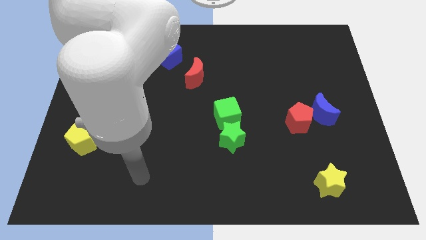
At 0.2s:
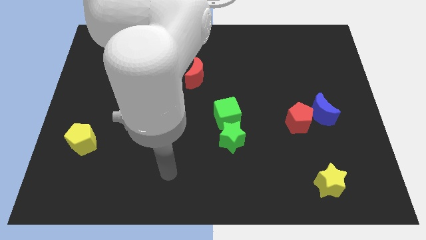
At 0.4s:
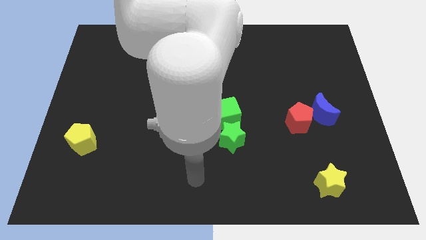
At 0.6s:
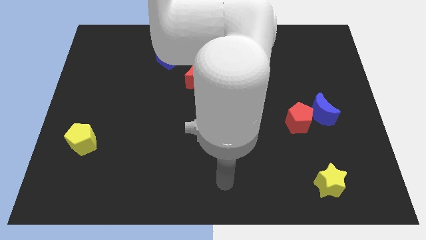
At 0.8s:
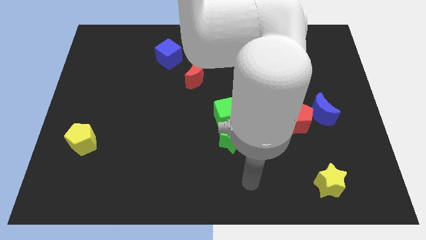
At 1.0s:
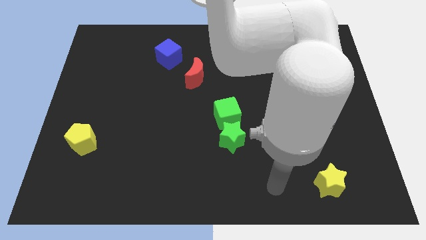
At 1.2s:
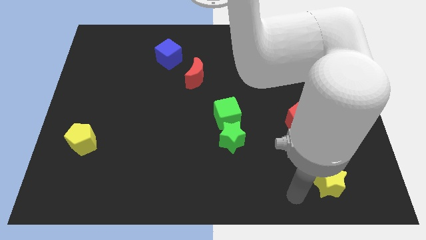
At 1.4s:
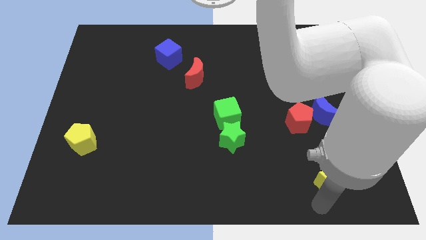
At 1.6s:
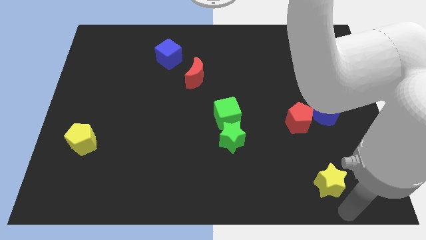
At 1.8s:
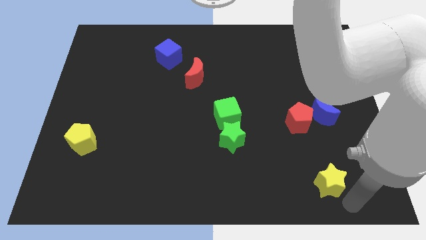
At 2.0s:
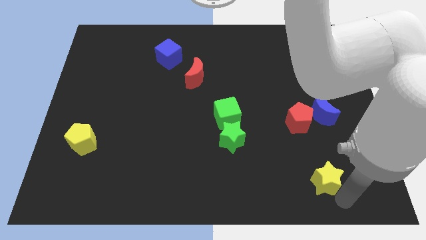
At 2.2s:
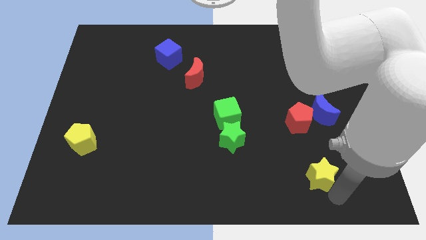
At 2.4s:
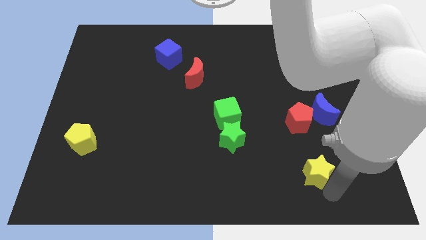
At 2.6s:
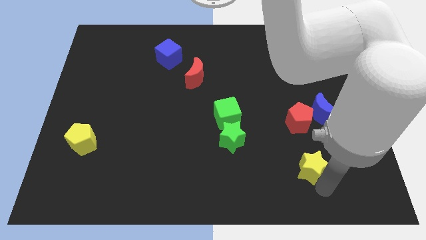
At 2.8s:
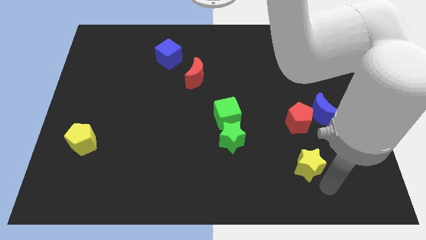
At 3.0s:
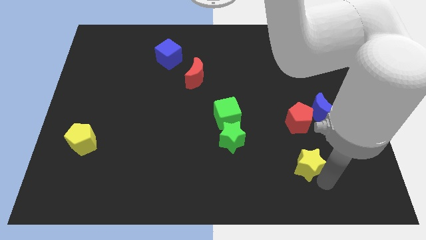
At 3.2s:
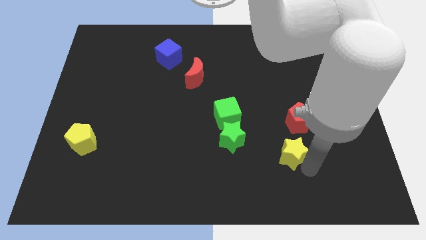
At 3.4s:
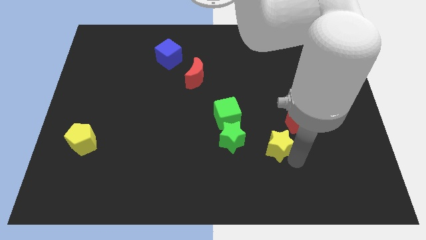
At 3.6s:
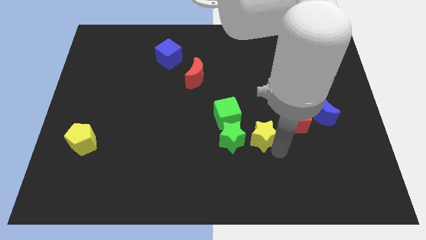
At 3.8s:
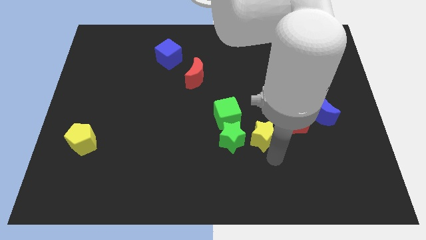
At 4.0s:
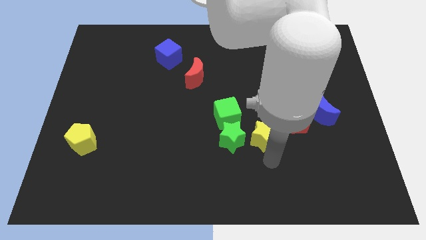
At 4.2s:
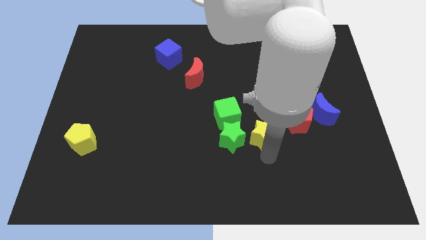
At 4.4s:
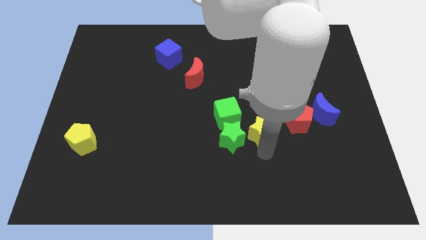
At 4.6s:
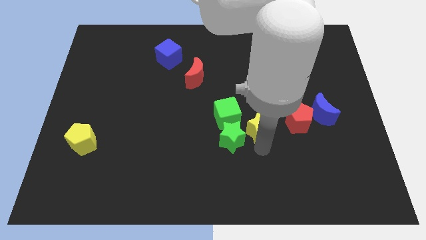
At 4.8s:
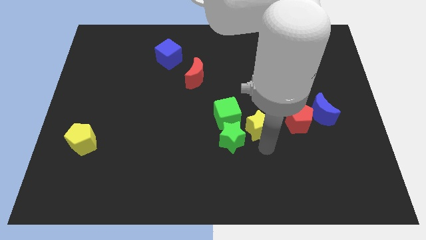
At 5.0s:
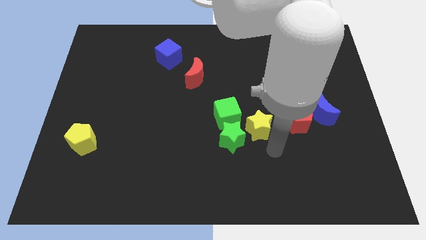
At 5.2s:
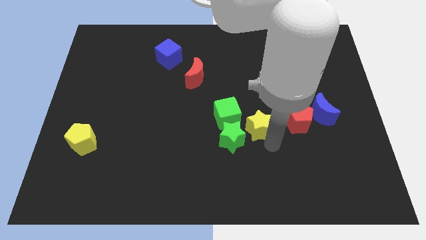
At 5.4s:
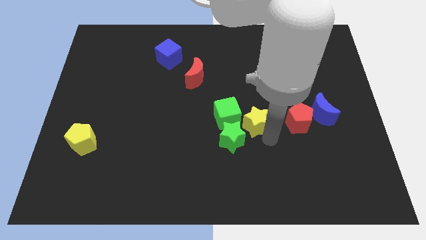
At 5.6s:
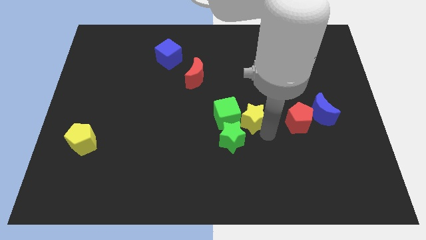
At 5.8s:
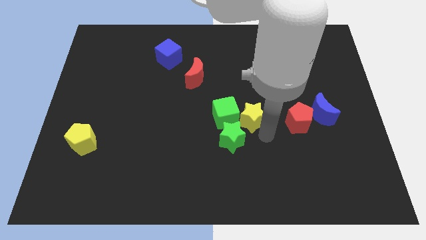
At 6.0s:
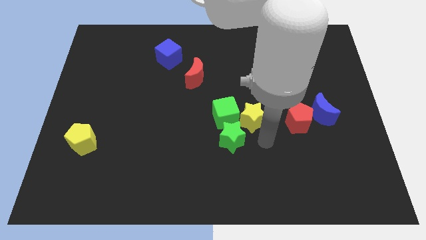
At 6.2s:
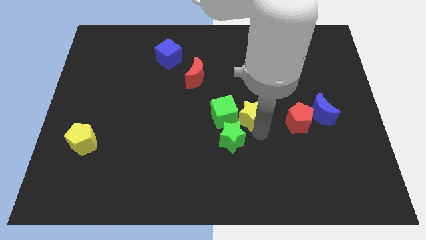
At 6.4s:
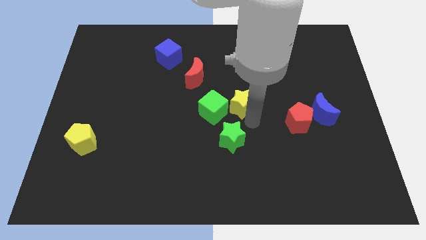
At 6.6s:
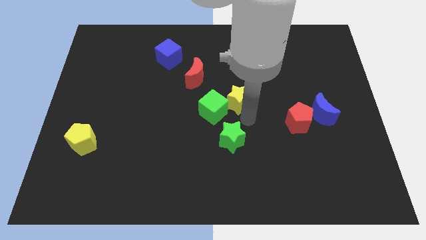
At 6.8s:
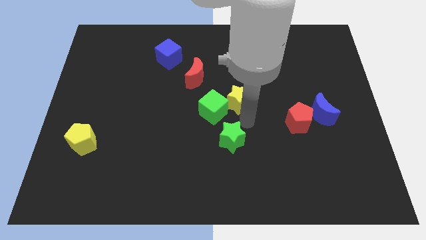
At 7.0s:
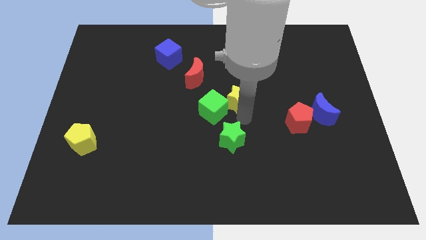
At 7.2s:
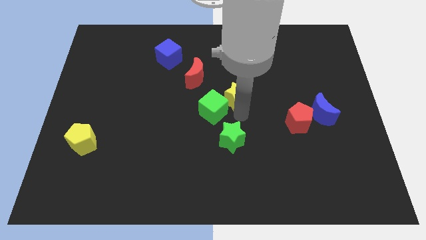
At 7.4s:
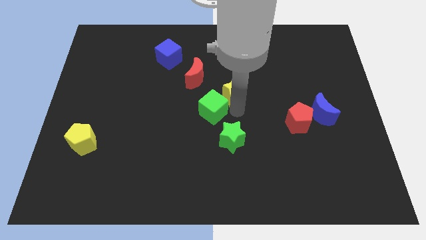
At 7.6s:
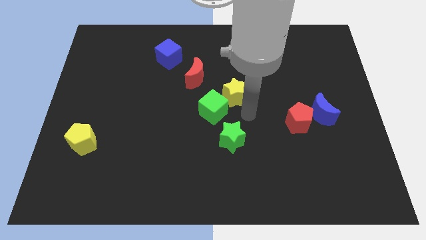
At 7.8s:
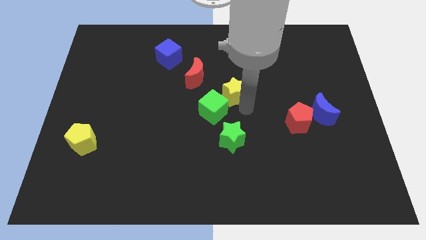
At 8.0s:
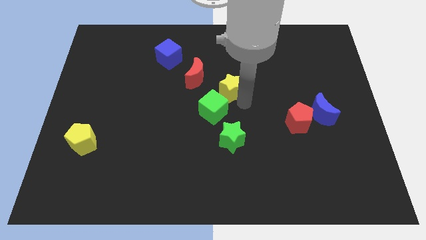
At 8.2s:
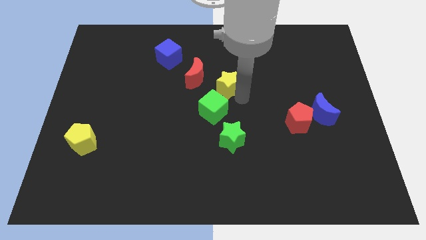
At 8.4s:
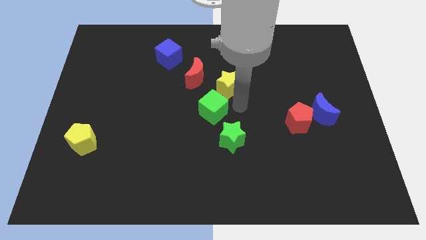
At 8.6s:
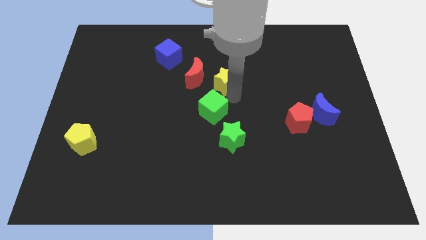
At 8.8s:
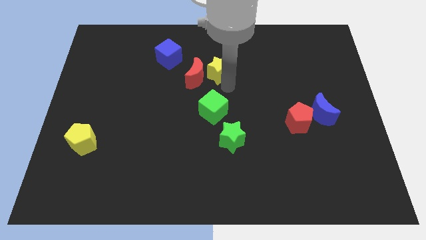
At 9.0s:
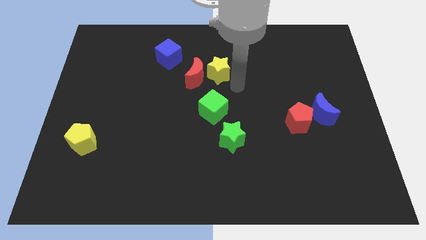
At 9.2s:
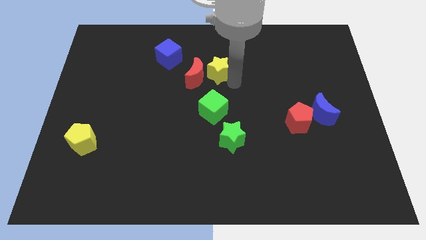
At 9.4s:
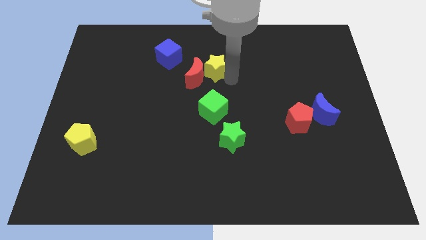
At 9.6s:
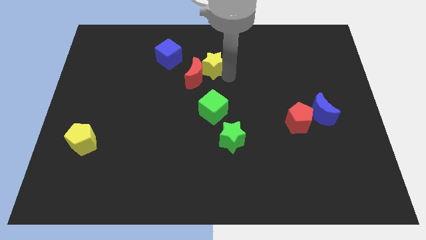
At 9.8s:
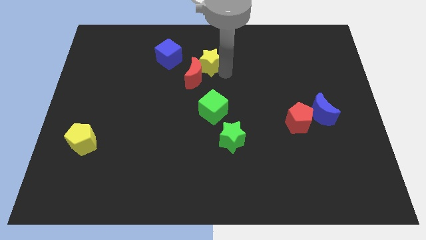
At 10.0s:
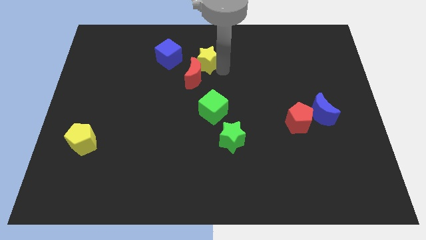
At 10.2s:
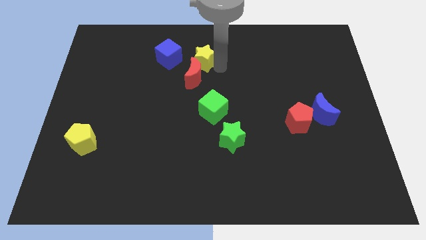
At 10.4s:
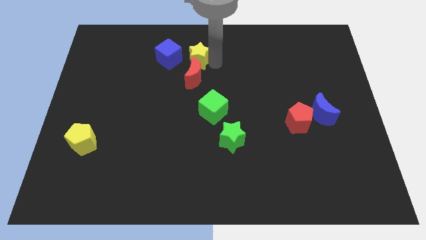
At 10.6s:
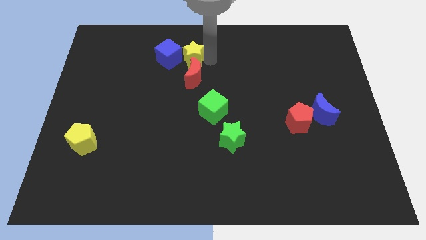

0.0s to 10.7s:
push the yellow star next to the blue cube

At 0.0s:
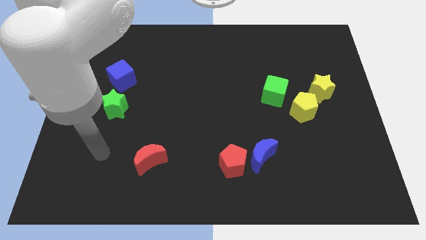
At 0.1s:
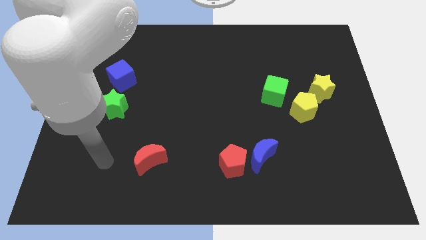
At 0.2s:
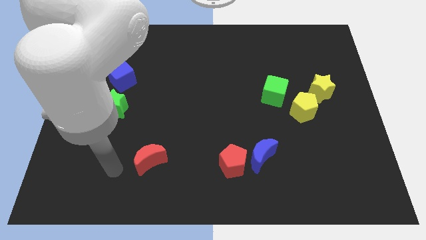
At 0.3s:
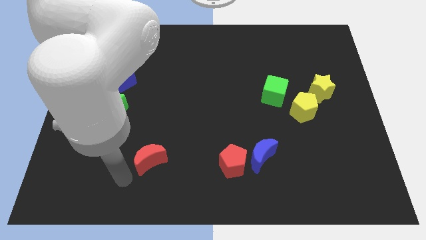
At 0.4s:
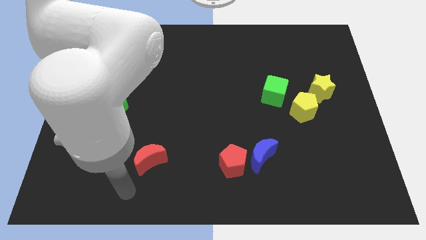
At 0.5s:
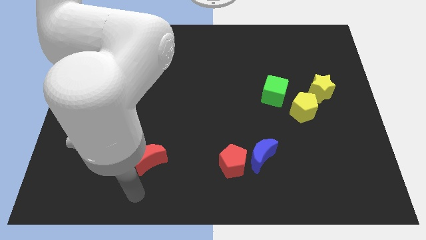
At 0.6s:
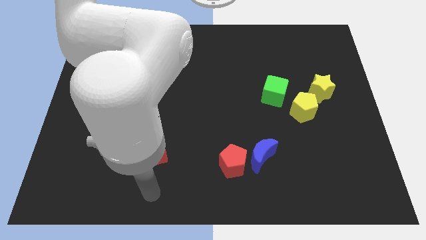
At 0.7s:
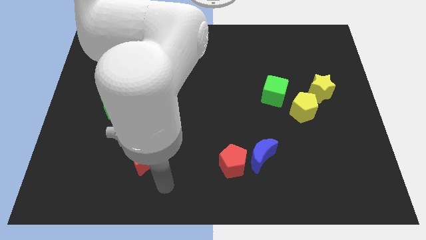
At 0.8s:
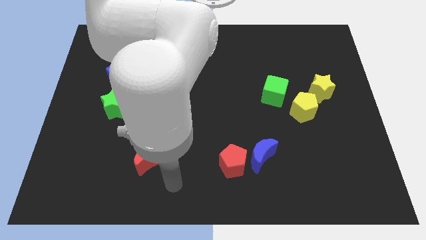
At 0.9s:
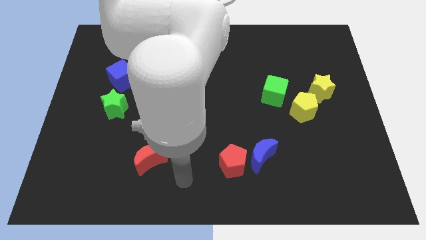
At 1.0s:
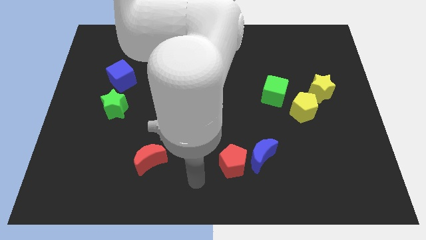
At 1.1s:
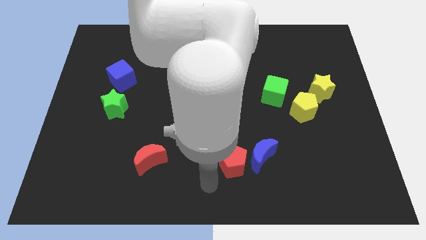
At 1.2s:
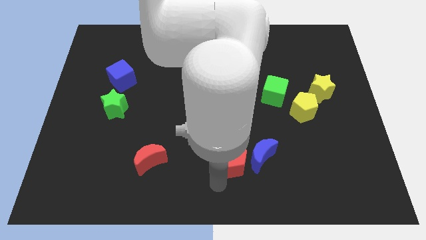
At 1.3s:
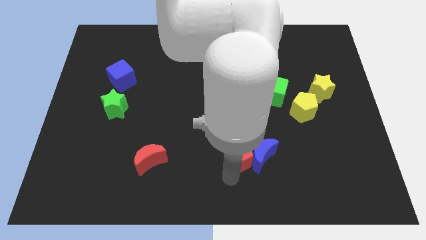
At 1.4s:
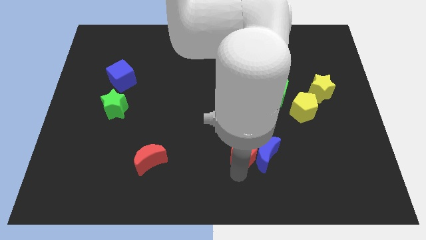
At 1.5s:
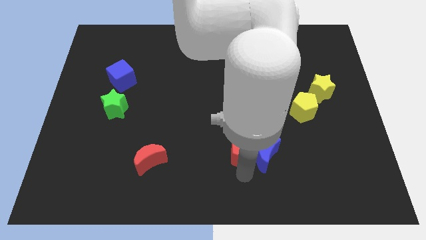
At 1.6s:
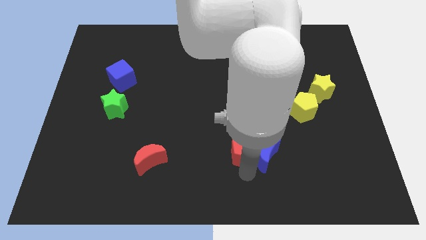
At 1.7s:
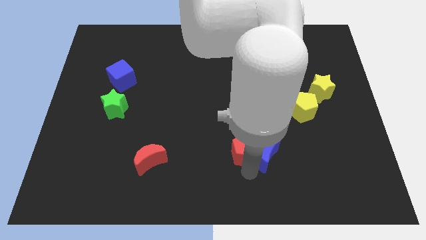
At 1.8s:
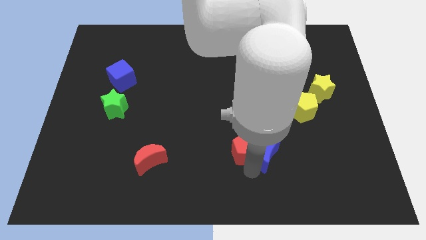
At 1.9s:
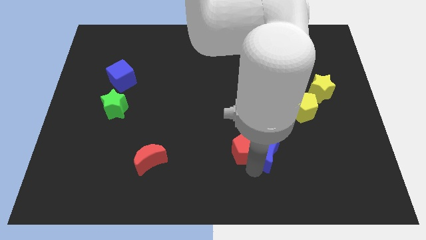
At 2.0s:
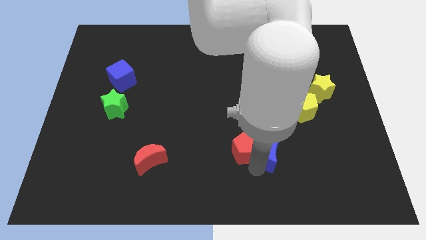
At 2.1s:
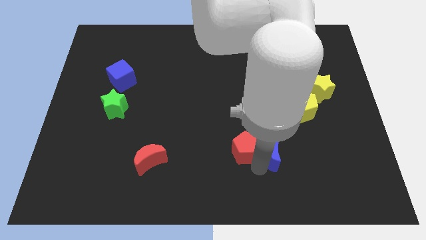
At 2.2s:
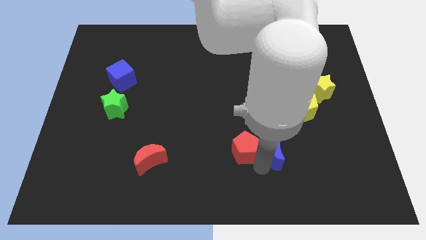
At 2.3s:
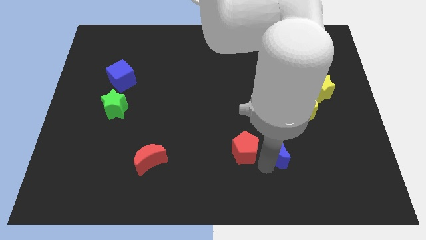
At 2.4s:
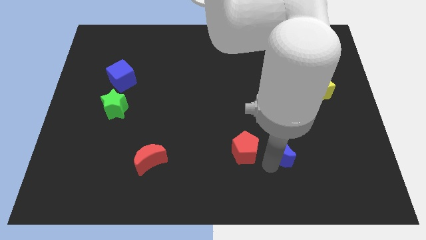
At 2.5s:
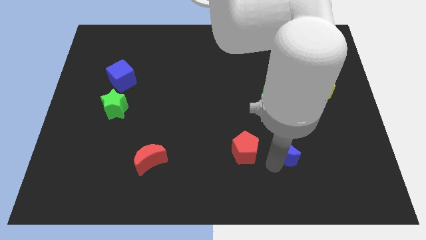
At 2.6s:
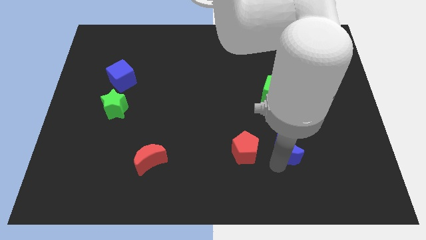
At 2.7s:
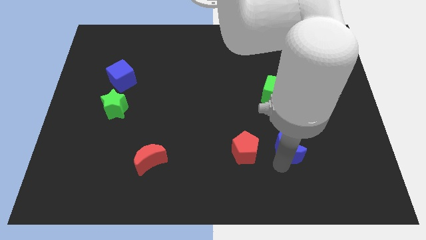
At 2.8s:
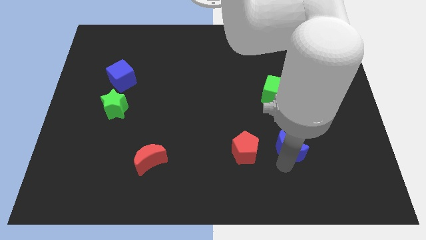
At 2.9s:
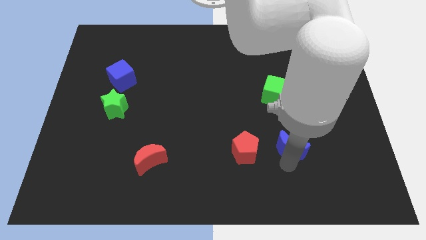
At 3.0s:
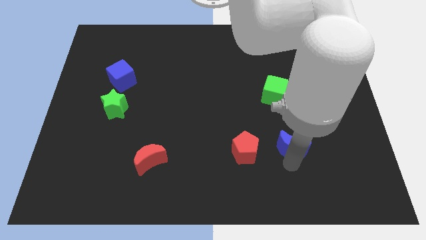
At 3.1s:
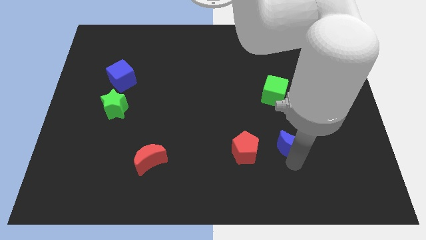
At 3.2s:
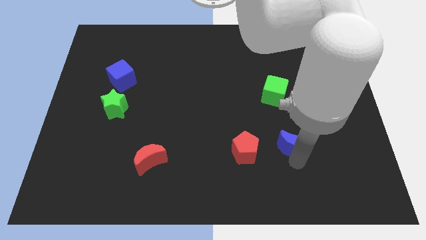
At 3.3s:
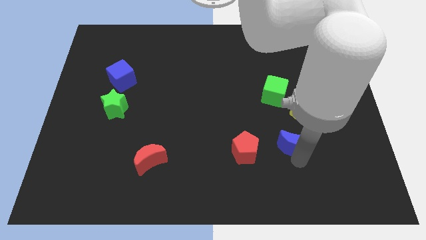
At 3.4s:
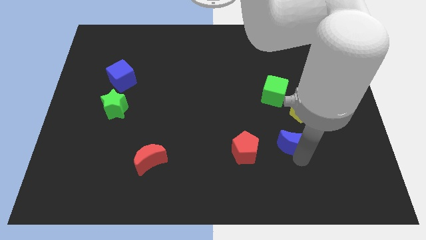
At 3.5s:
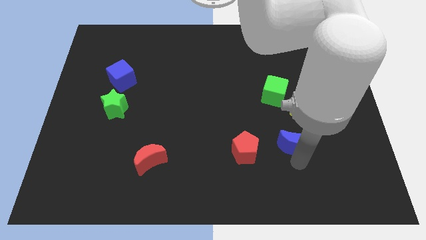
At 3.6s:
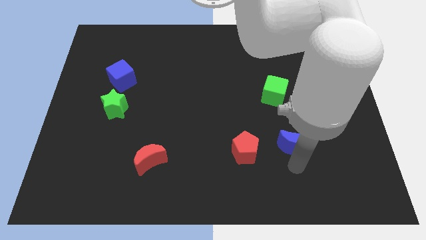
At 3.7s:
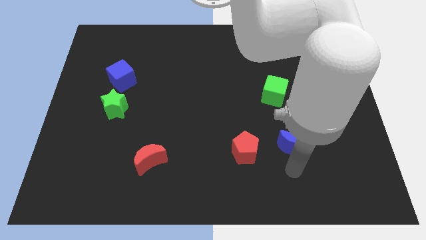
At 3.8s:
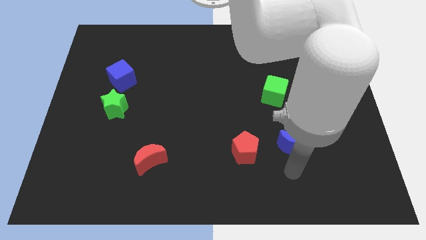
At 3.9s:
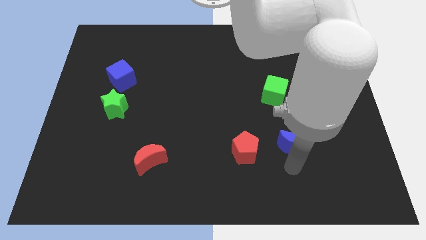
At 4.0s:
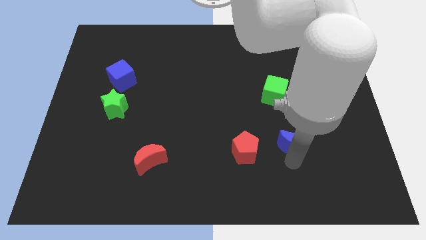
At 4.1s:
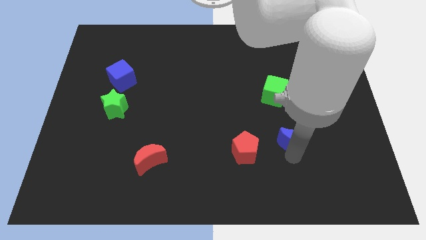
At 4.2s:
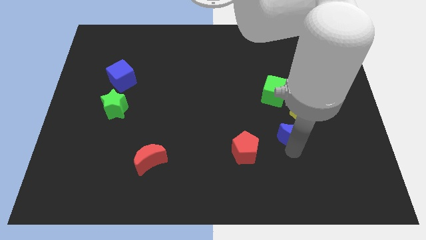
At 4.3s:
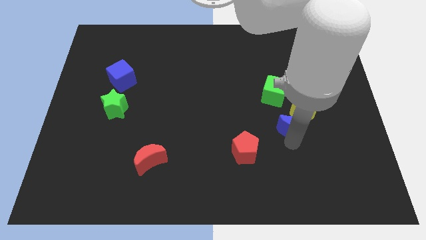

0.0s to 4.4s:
slide the blue moon close to the yellow pentagon
